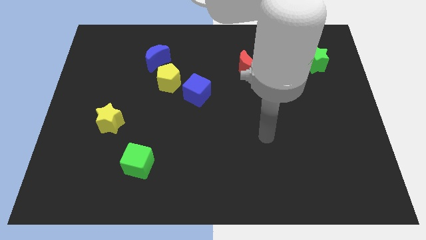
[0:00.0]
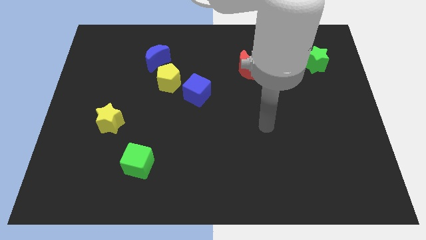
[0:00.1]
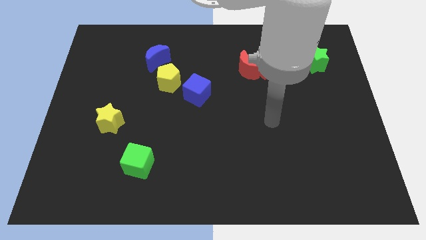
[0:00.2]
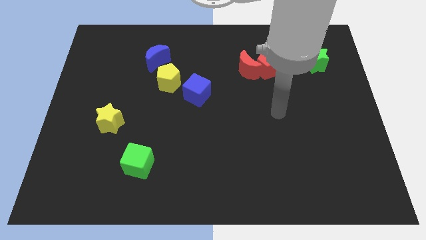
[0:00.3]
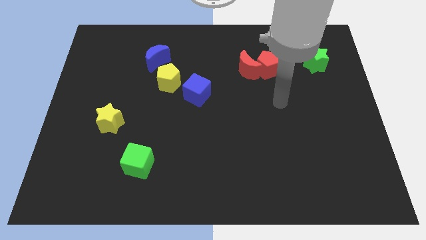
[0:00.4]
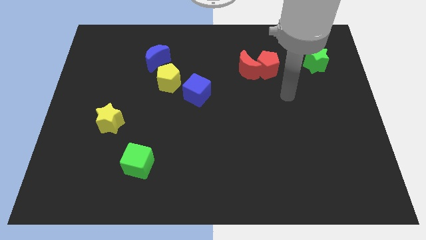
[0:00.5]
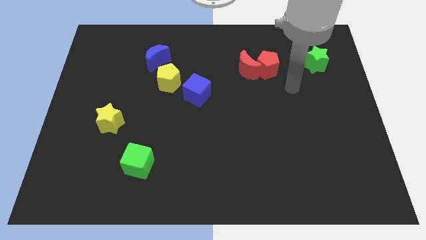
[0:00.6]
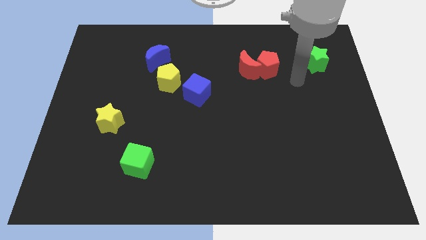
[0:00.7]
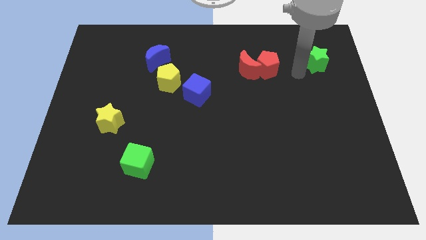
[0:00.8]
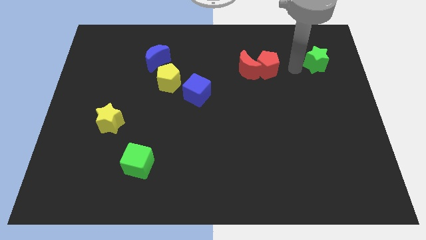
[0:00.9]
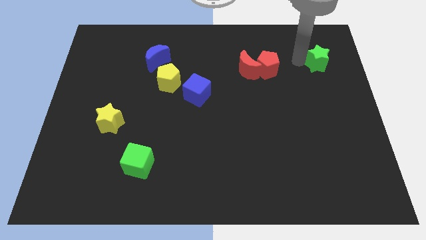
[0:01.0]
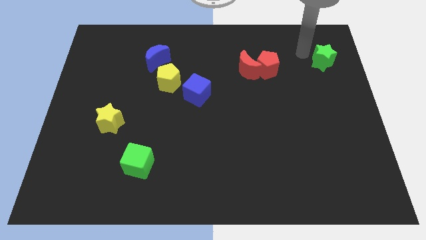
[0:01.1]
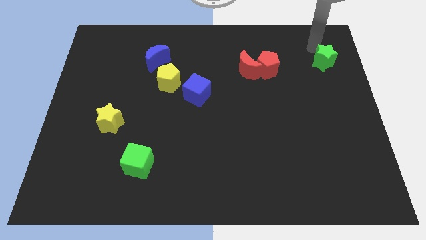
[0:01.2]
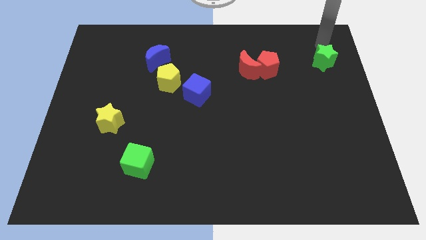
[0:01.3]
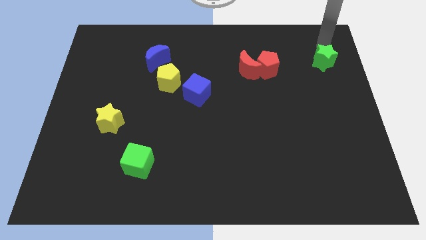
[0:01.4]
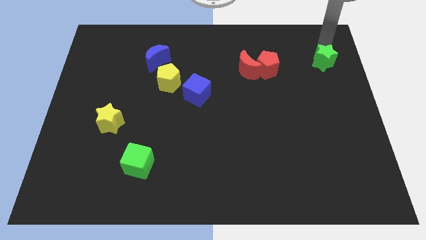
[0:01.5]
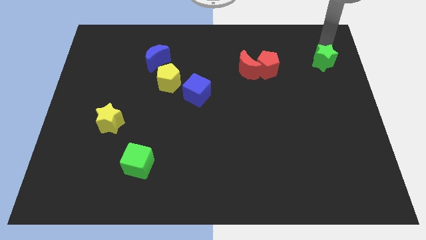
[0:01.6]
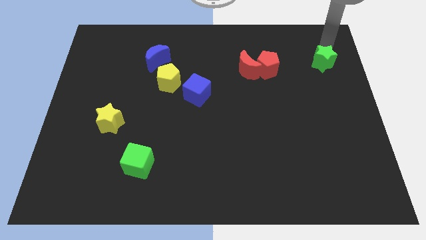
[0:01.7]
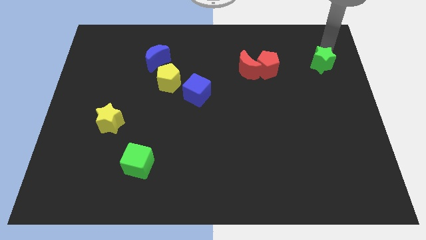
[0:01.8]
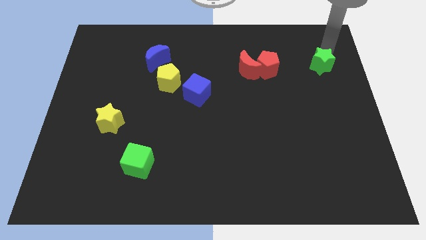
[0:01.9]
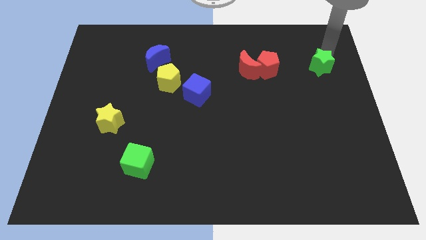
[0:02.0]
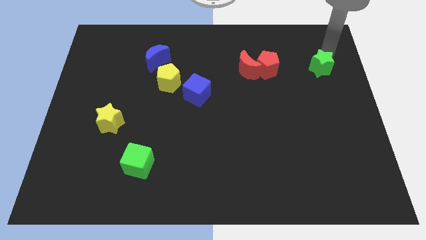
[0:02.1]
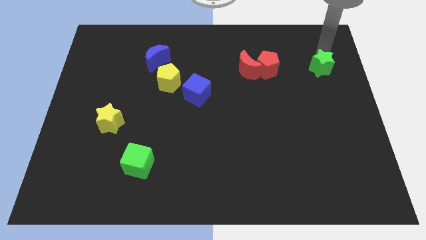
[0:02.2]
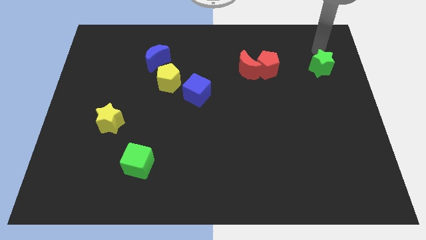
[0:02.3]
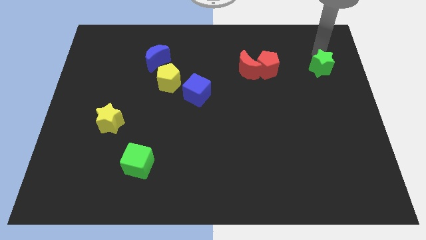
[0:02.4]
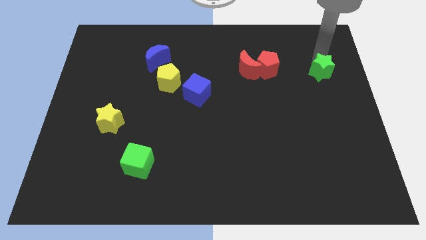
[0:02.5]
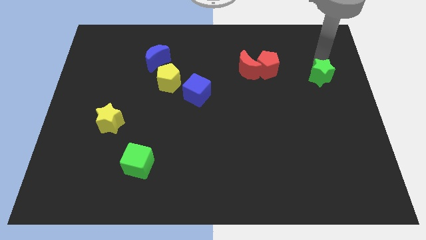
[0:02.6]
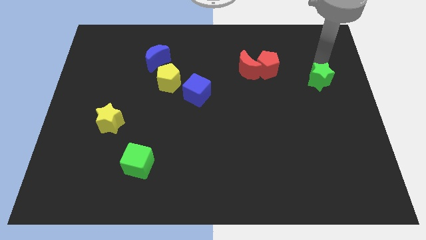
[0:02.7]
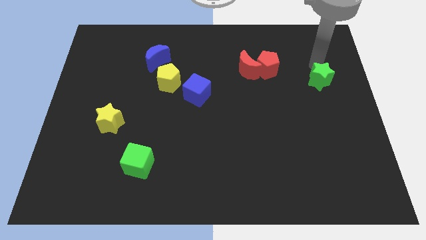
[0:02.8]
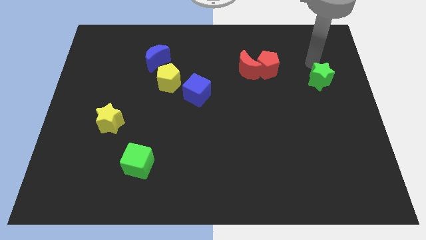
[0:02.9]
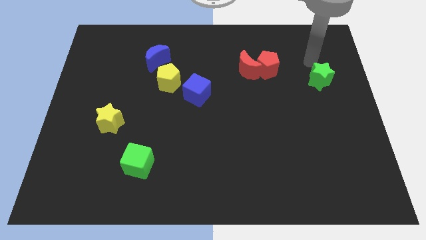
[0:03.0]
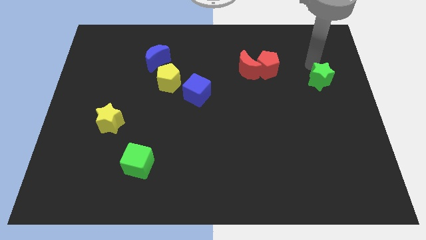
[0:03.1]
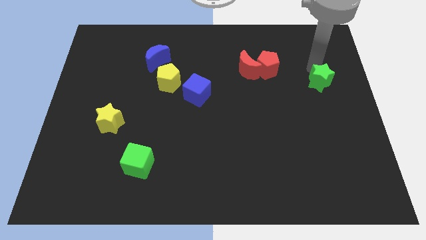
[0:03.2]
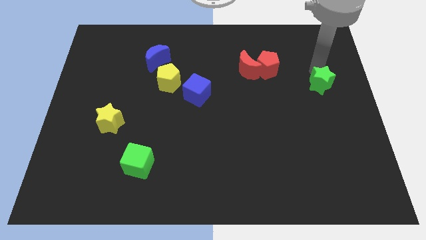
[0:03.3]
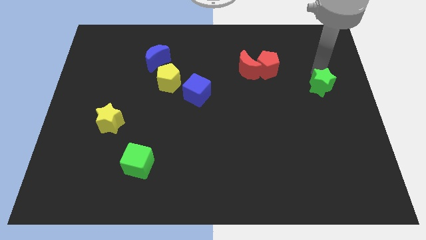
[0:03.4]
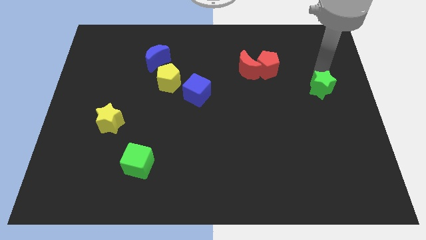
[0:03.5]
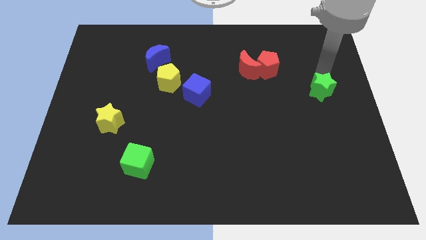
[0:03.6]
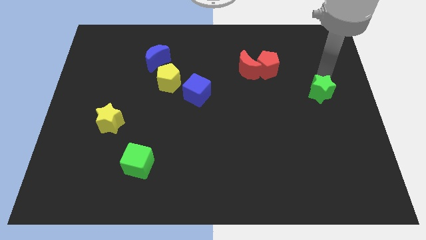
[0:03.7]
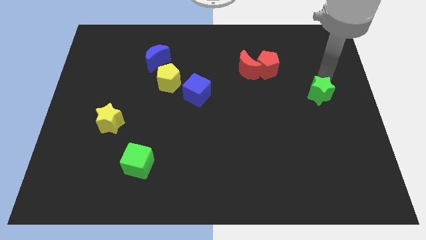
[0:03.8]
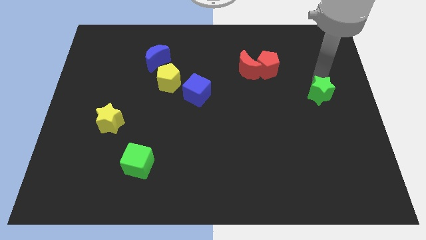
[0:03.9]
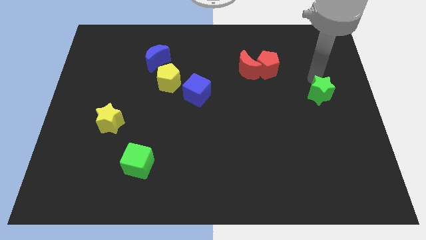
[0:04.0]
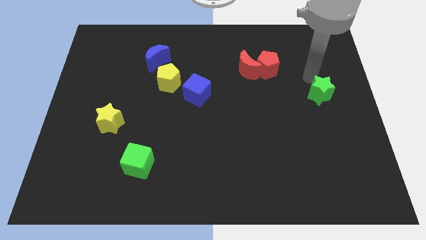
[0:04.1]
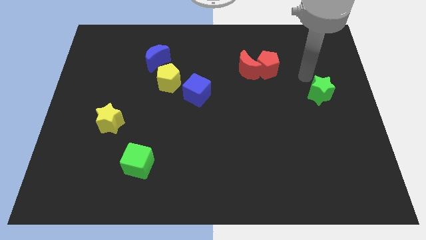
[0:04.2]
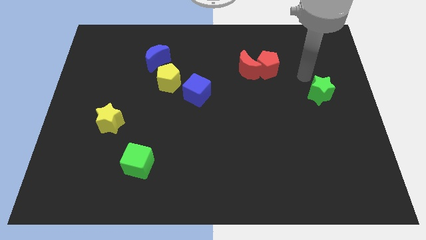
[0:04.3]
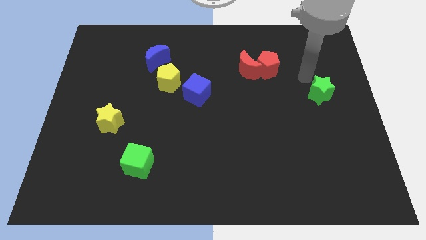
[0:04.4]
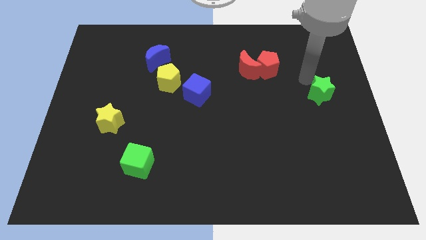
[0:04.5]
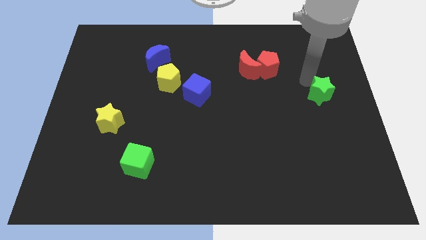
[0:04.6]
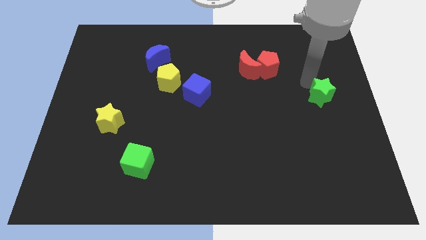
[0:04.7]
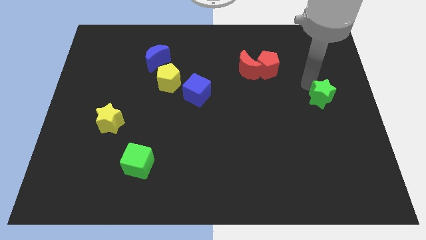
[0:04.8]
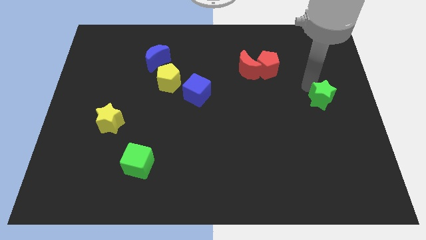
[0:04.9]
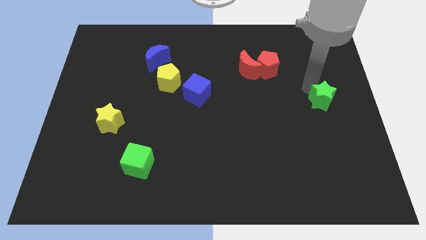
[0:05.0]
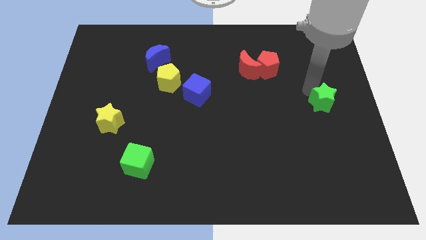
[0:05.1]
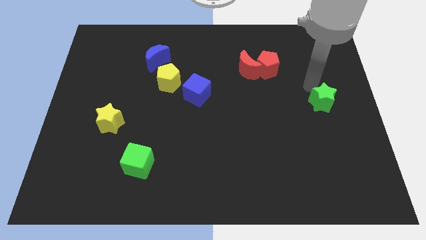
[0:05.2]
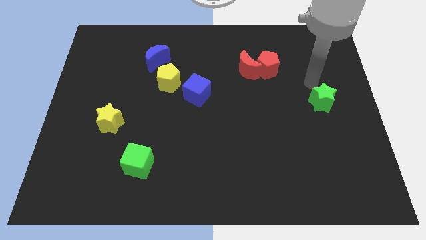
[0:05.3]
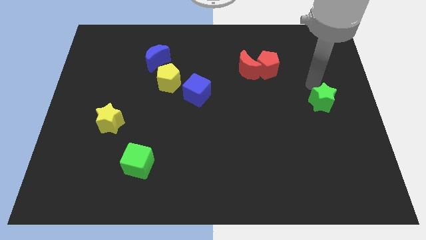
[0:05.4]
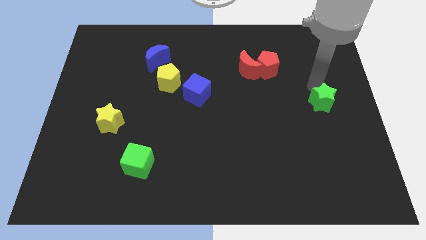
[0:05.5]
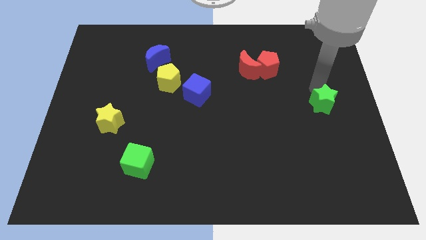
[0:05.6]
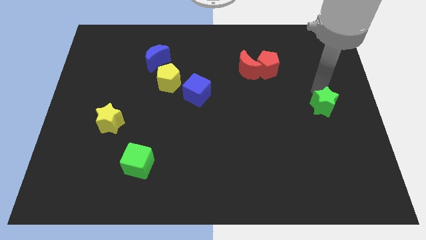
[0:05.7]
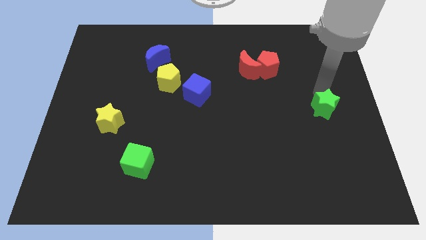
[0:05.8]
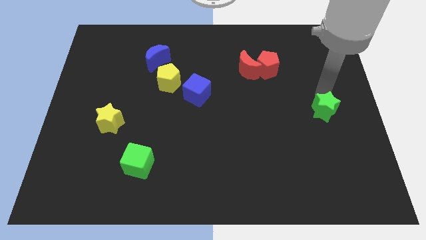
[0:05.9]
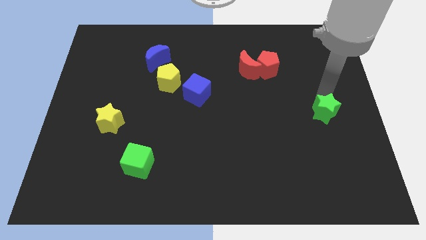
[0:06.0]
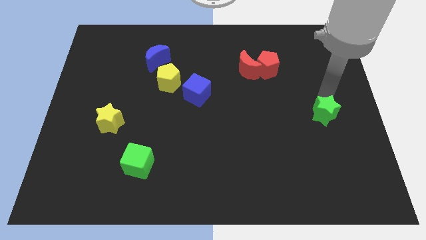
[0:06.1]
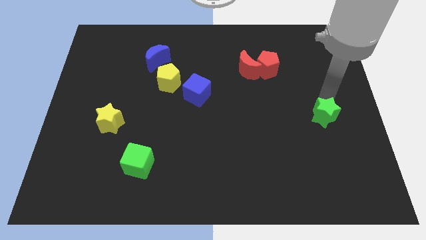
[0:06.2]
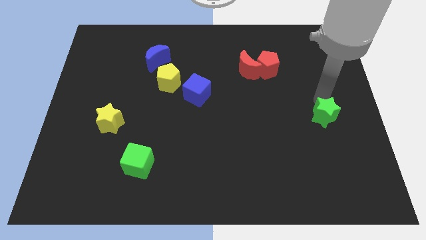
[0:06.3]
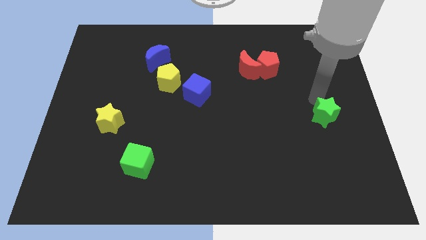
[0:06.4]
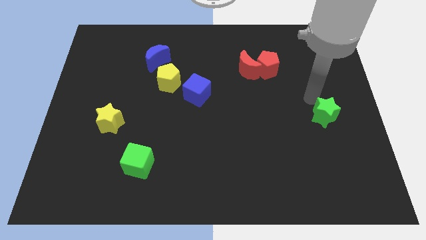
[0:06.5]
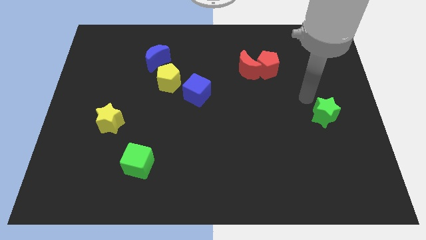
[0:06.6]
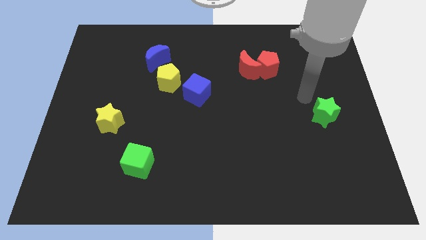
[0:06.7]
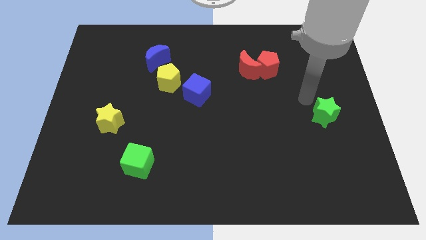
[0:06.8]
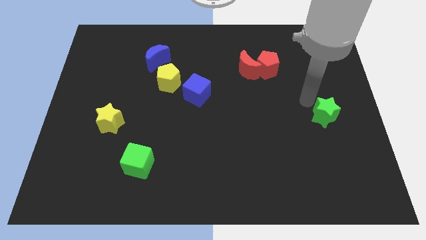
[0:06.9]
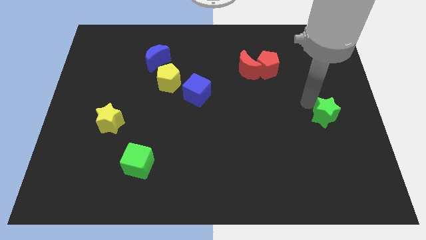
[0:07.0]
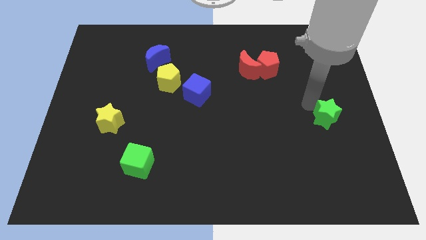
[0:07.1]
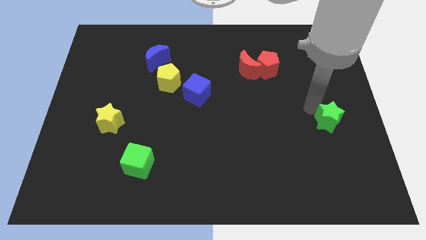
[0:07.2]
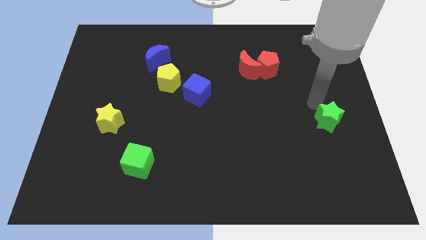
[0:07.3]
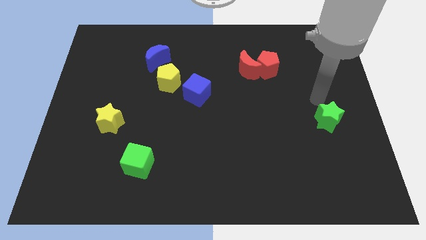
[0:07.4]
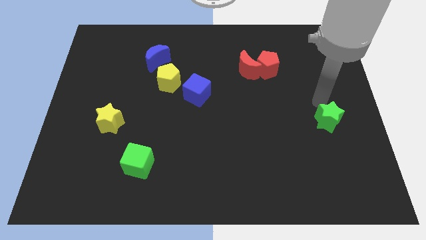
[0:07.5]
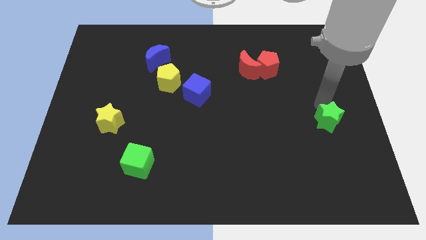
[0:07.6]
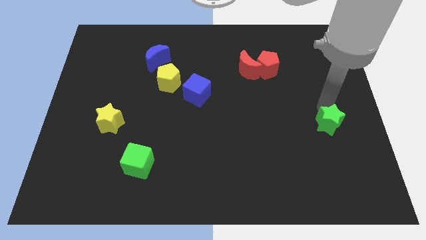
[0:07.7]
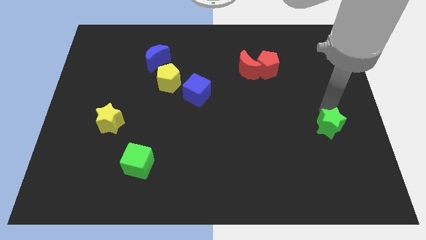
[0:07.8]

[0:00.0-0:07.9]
move the green star down
